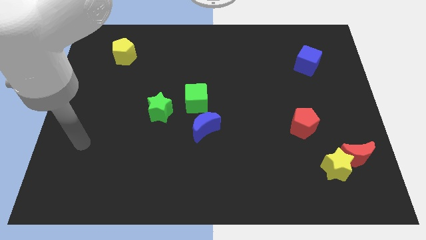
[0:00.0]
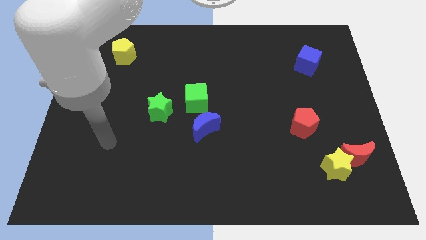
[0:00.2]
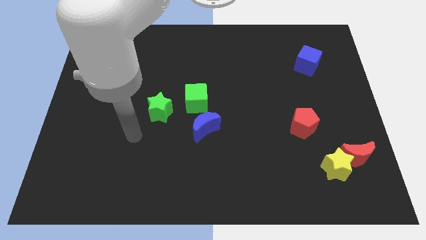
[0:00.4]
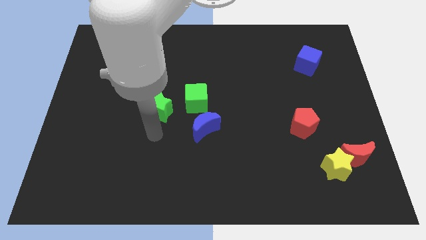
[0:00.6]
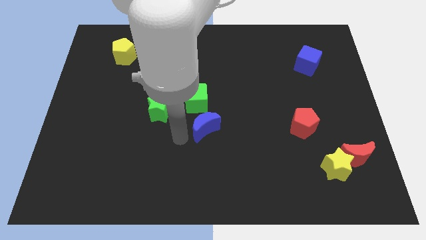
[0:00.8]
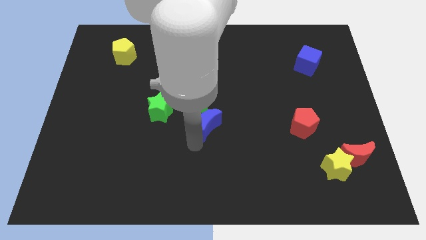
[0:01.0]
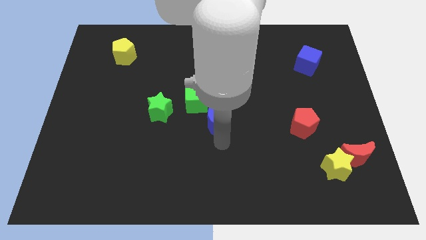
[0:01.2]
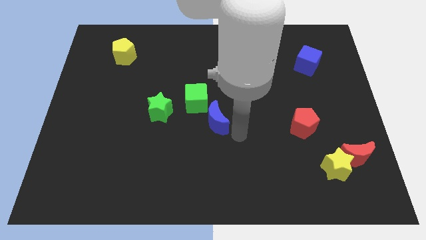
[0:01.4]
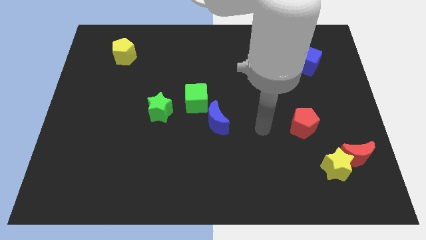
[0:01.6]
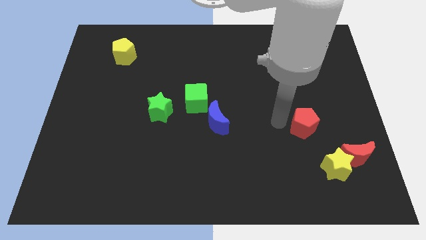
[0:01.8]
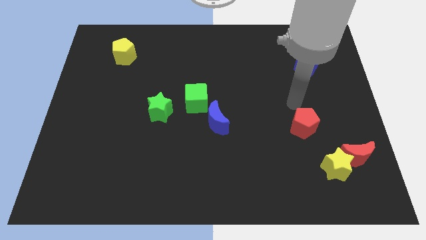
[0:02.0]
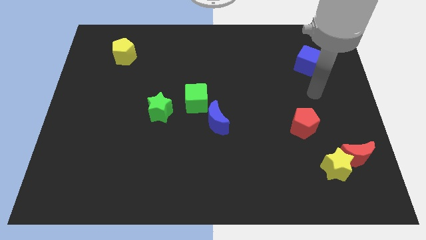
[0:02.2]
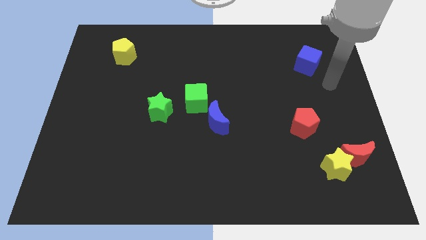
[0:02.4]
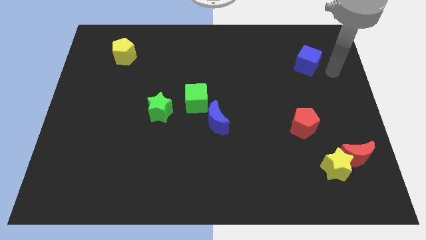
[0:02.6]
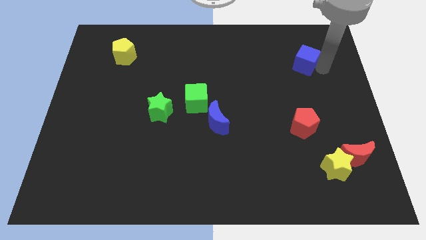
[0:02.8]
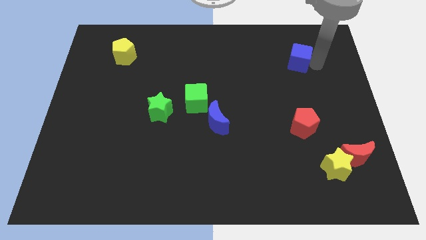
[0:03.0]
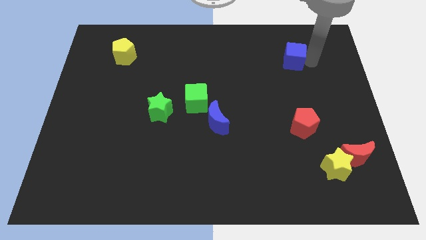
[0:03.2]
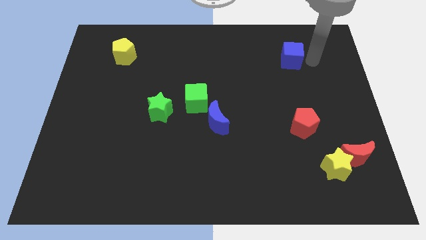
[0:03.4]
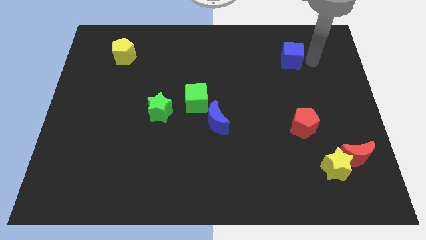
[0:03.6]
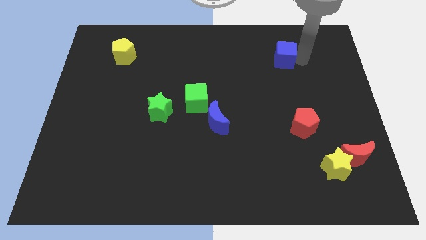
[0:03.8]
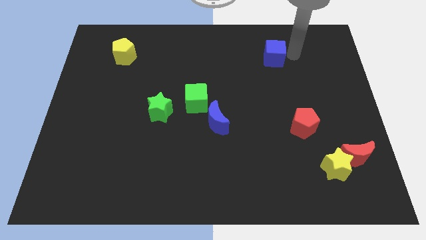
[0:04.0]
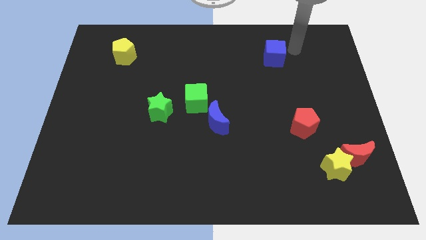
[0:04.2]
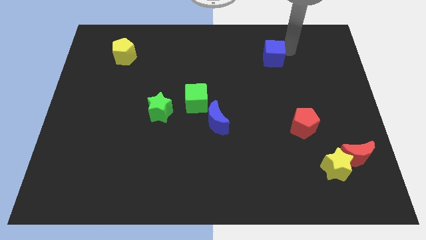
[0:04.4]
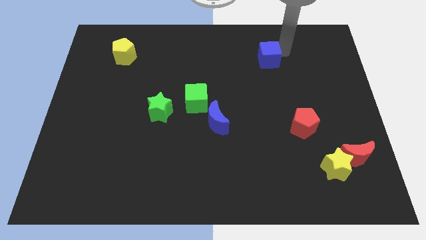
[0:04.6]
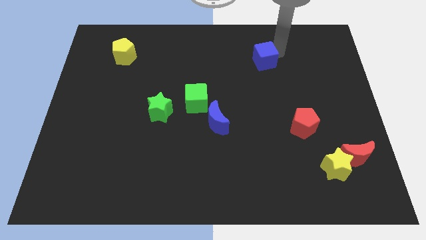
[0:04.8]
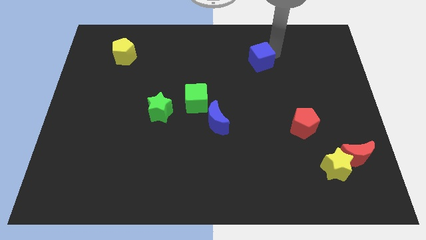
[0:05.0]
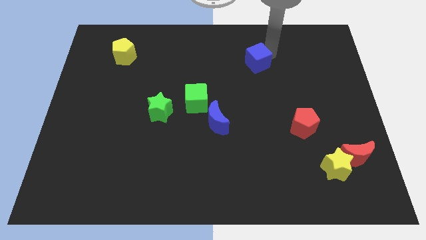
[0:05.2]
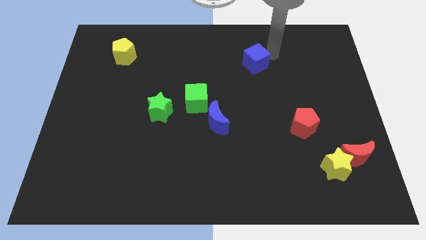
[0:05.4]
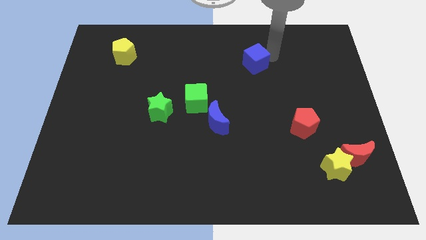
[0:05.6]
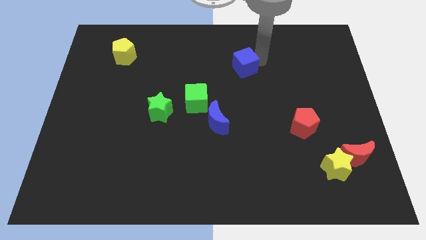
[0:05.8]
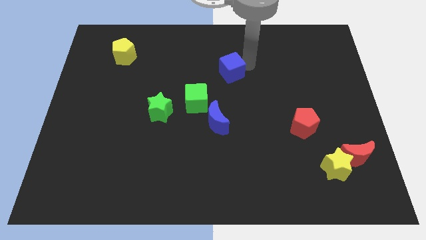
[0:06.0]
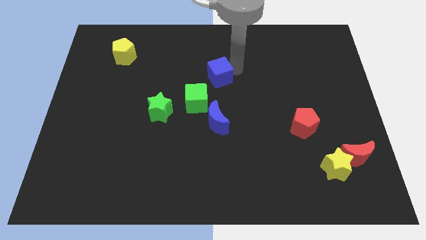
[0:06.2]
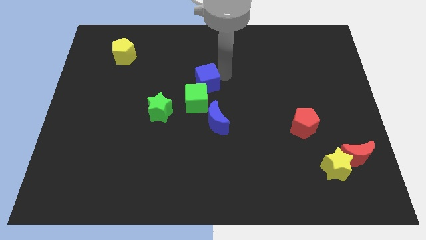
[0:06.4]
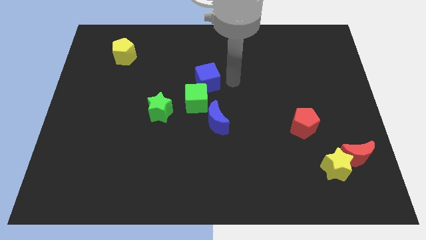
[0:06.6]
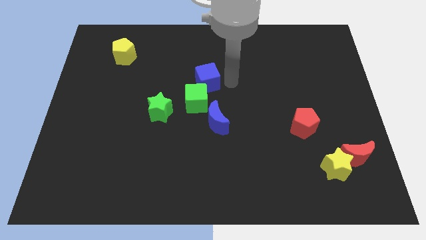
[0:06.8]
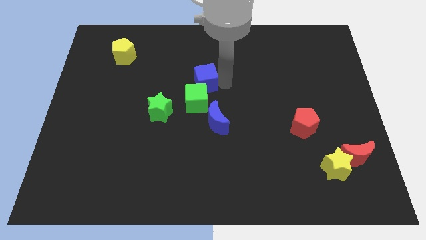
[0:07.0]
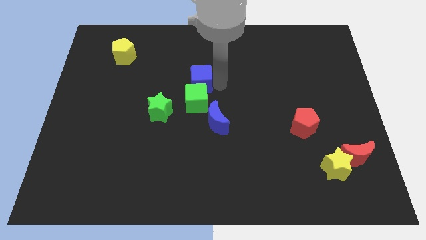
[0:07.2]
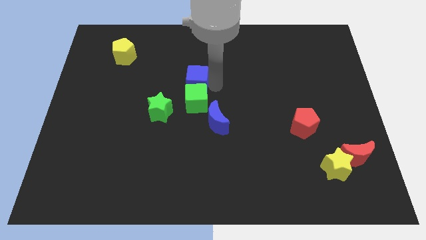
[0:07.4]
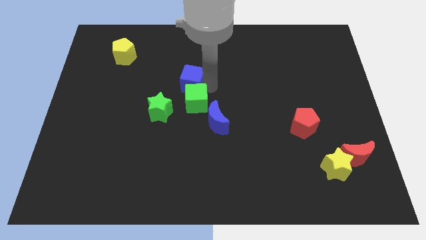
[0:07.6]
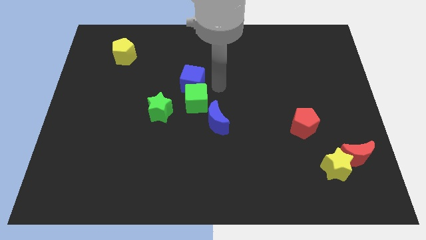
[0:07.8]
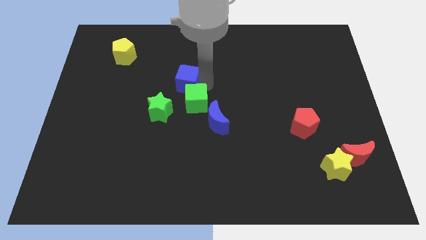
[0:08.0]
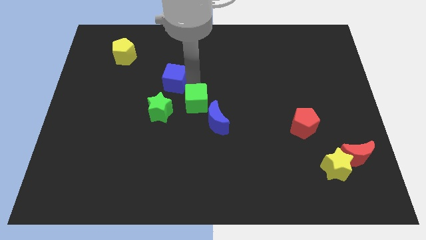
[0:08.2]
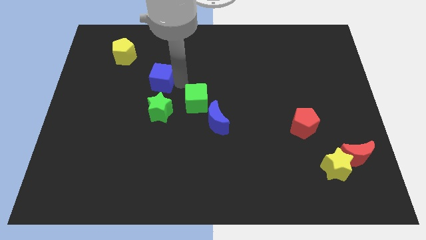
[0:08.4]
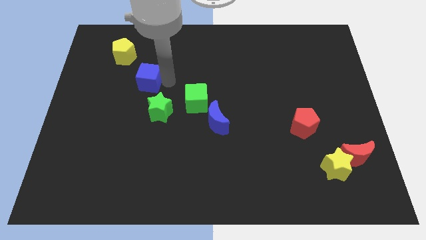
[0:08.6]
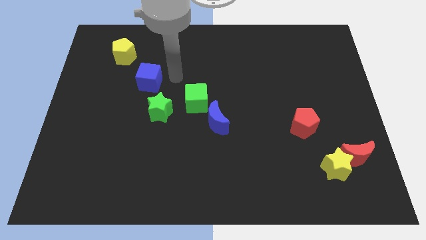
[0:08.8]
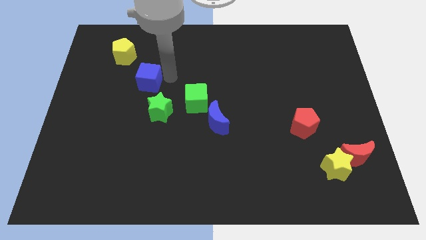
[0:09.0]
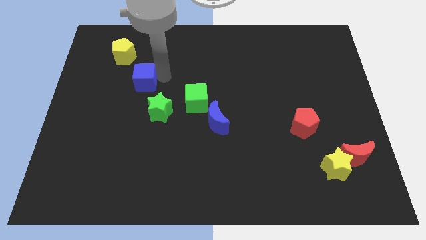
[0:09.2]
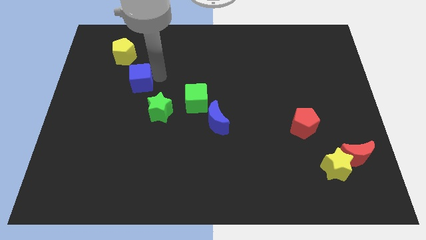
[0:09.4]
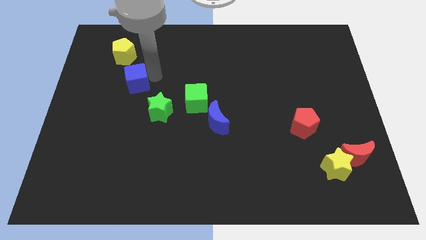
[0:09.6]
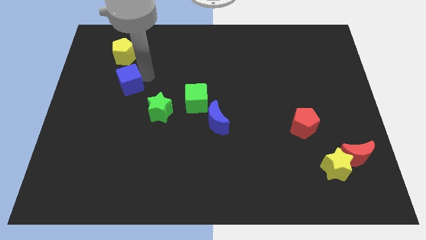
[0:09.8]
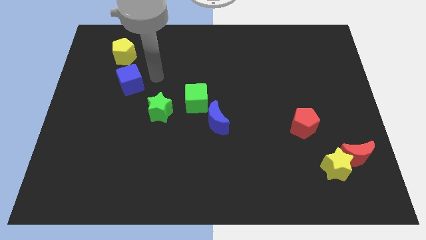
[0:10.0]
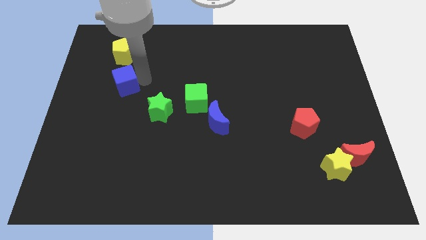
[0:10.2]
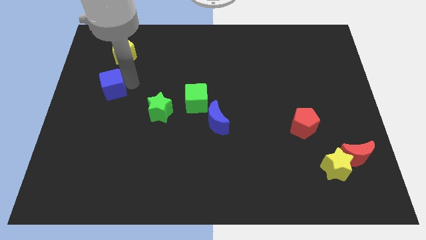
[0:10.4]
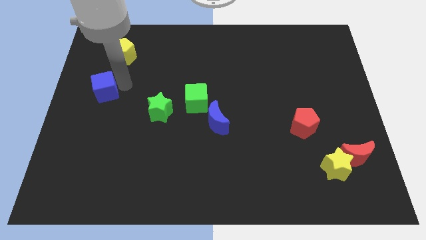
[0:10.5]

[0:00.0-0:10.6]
put the blue cube to the left side

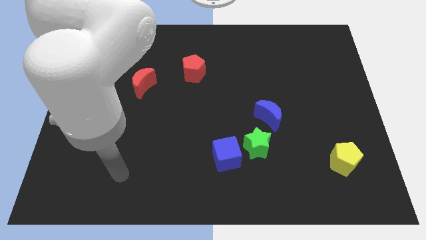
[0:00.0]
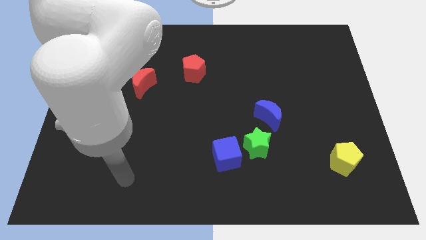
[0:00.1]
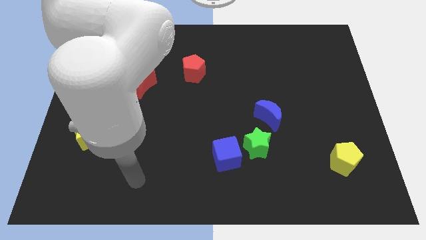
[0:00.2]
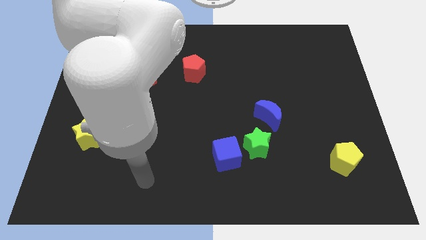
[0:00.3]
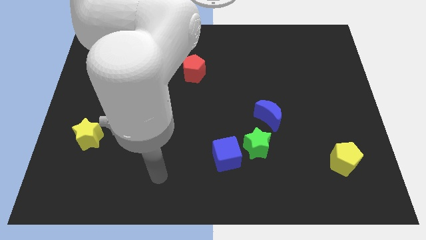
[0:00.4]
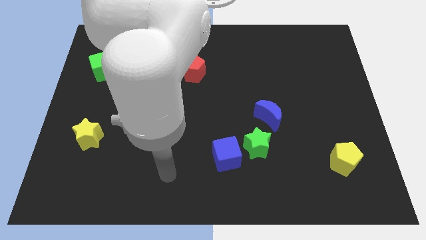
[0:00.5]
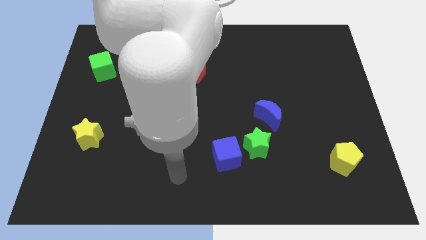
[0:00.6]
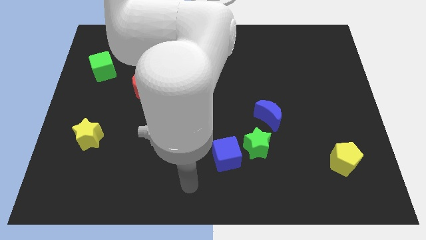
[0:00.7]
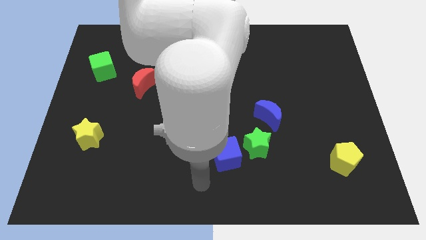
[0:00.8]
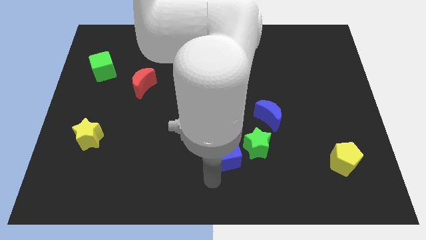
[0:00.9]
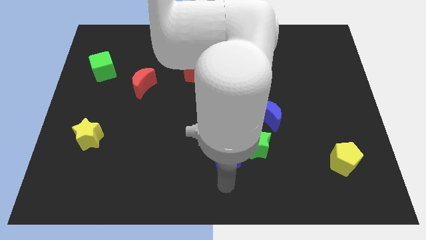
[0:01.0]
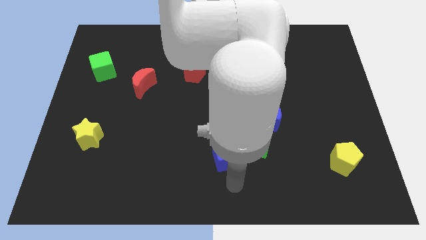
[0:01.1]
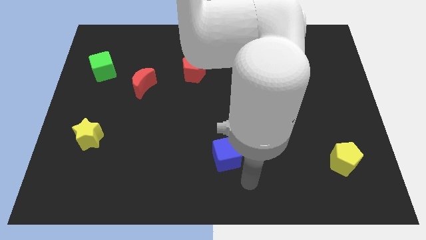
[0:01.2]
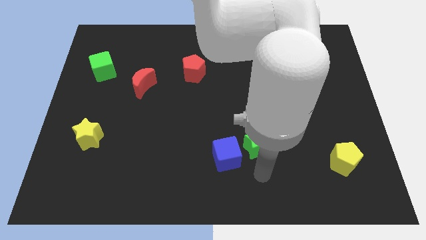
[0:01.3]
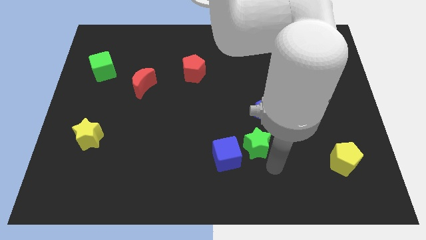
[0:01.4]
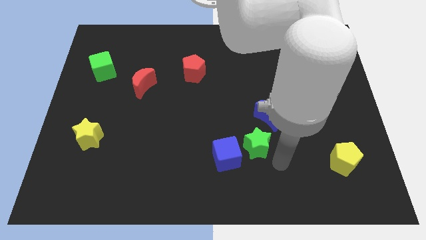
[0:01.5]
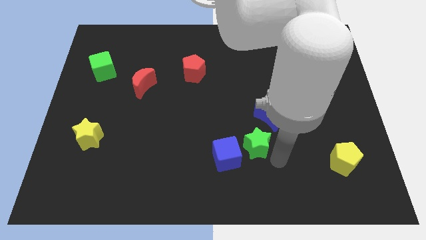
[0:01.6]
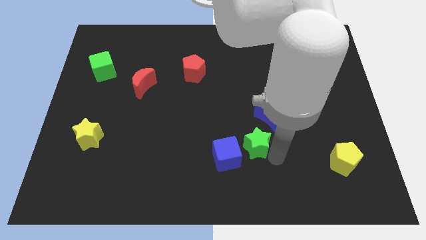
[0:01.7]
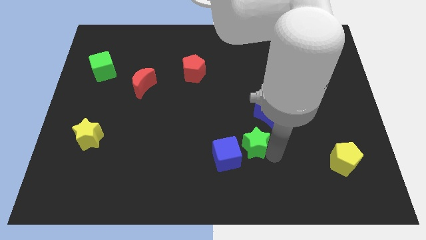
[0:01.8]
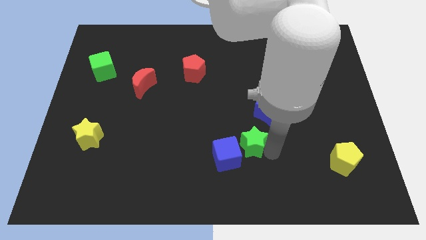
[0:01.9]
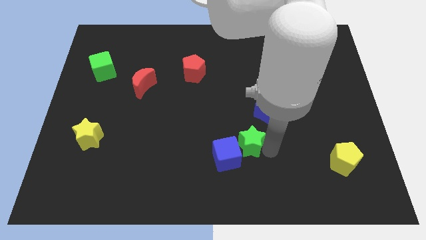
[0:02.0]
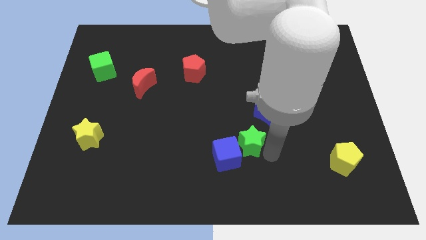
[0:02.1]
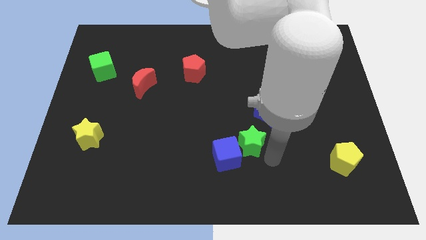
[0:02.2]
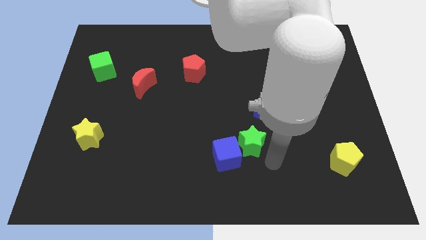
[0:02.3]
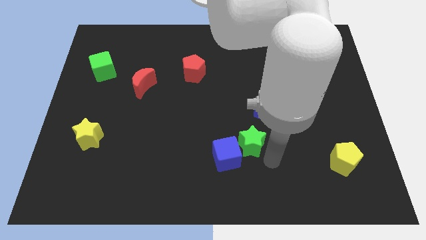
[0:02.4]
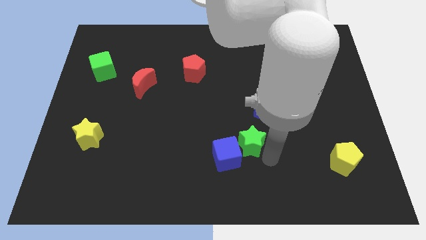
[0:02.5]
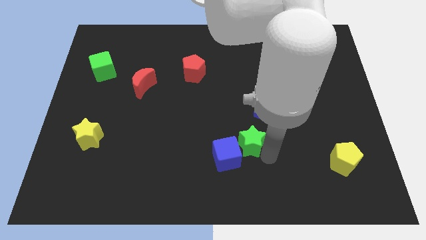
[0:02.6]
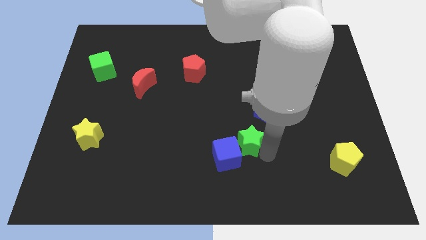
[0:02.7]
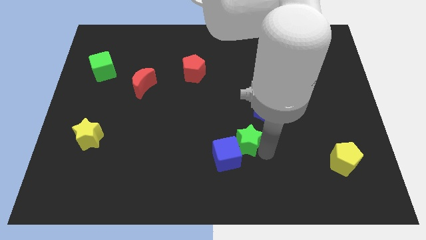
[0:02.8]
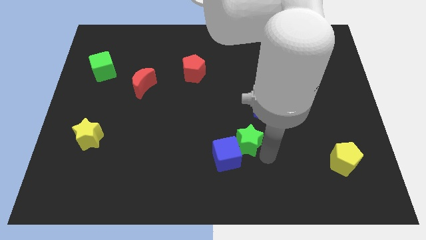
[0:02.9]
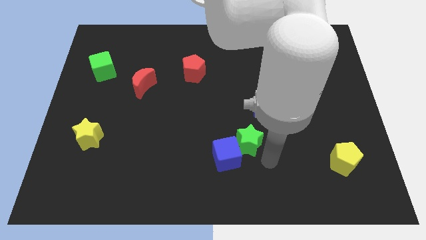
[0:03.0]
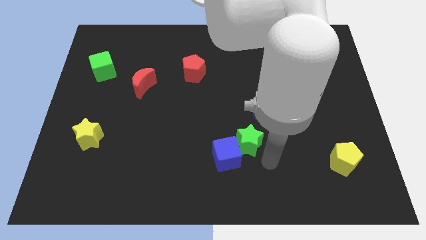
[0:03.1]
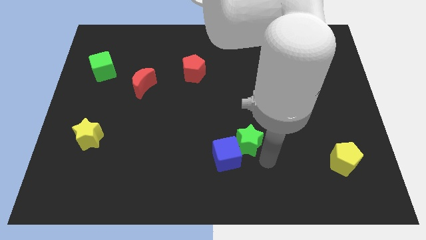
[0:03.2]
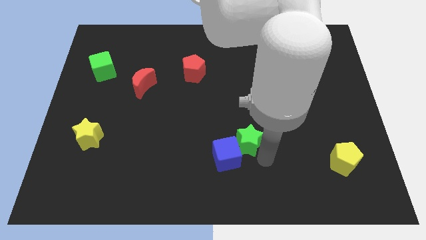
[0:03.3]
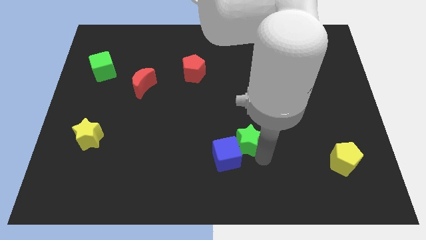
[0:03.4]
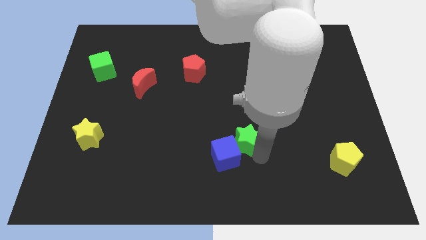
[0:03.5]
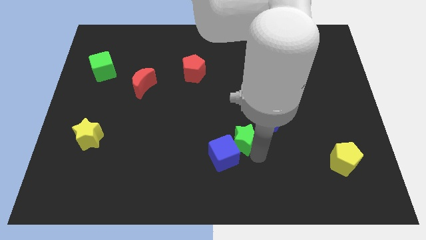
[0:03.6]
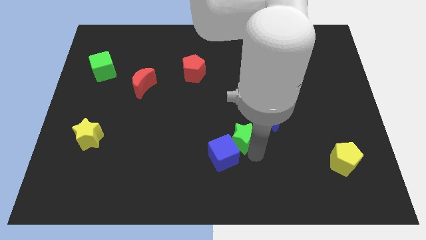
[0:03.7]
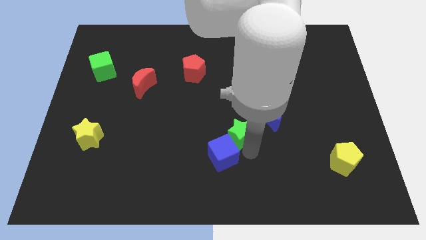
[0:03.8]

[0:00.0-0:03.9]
put the green star to the middle
